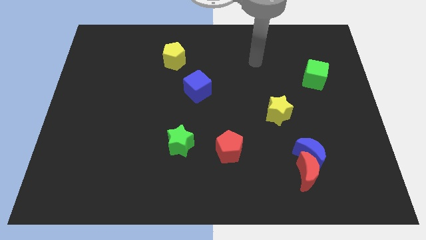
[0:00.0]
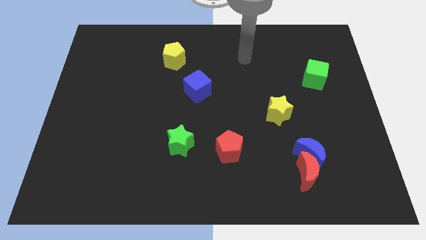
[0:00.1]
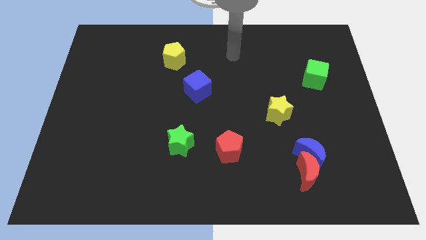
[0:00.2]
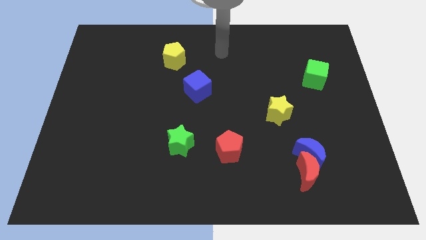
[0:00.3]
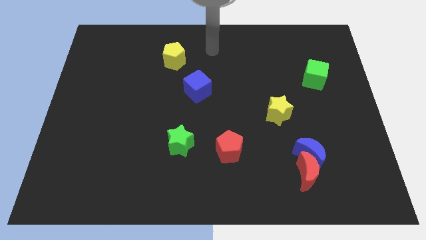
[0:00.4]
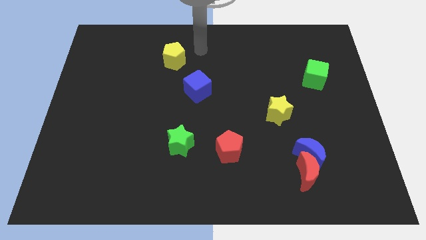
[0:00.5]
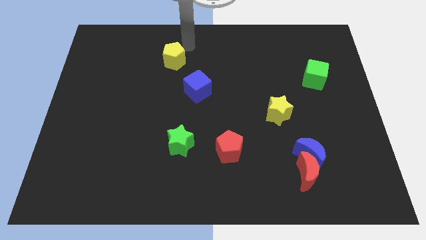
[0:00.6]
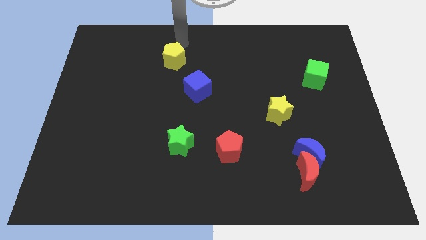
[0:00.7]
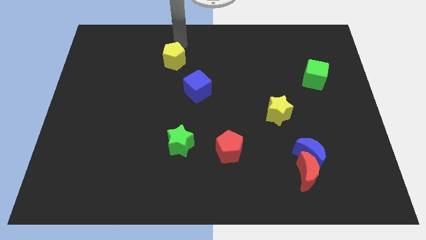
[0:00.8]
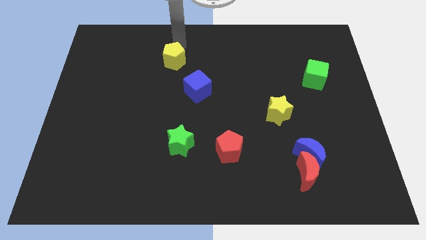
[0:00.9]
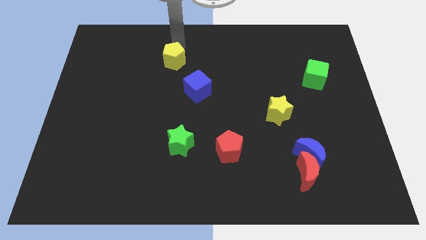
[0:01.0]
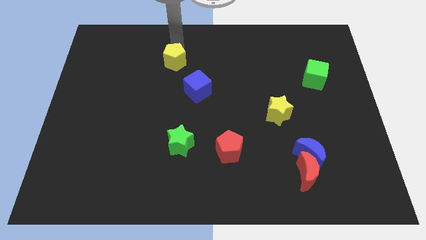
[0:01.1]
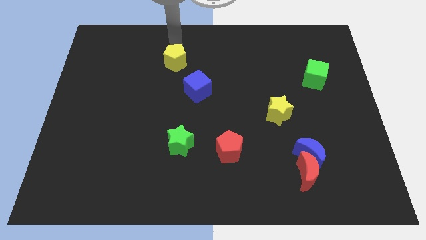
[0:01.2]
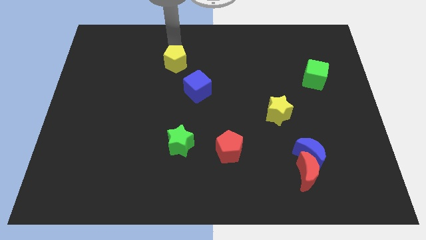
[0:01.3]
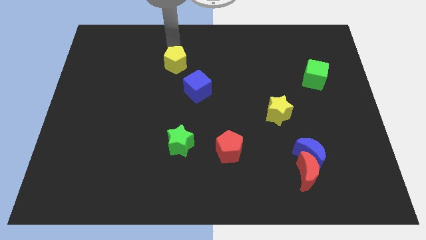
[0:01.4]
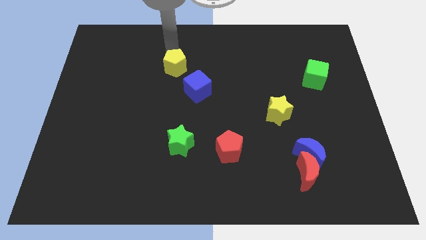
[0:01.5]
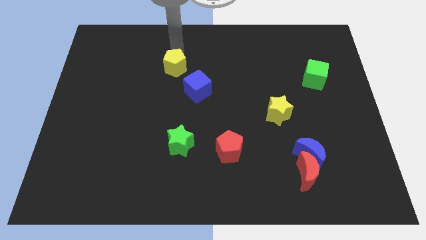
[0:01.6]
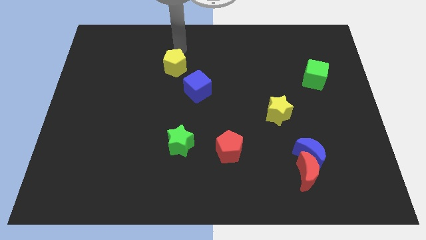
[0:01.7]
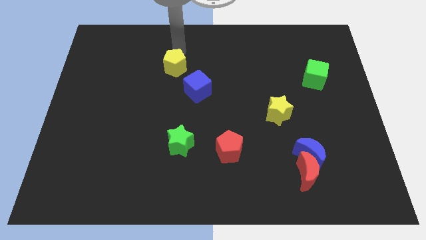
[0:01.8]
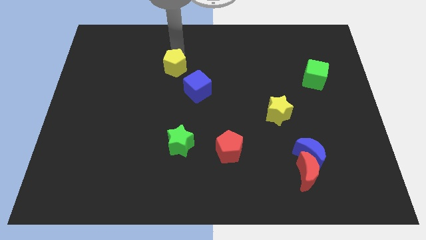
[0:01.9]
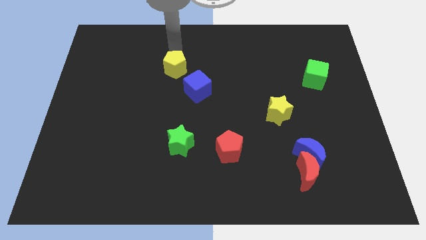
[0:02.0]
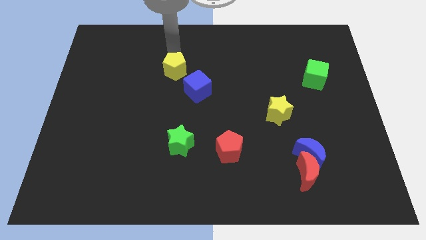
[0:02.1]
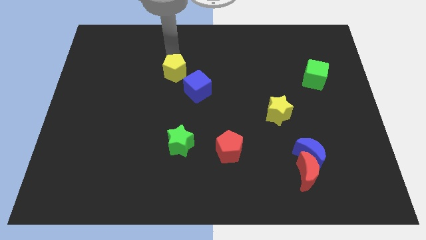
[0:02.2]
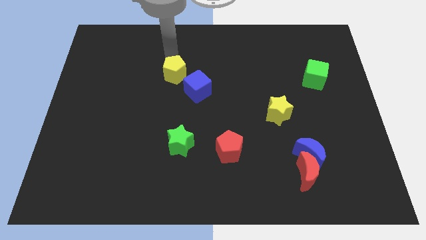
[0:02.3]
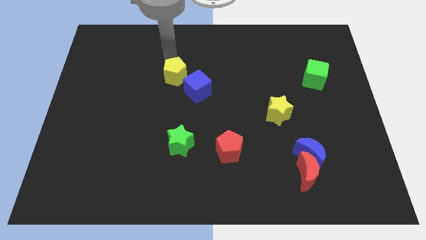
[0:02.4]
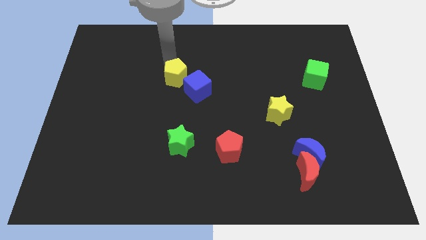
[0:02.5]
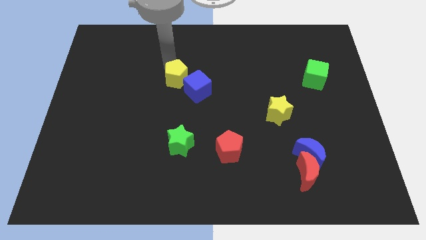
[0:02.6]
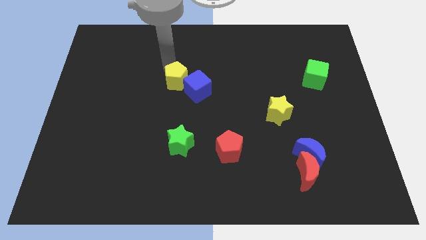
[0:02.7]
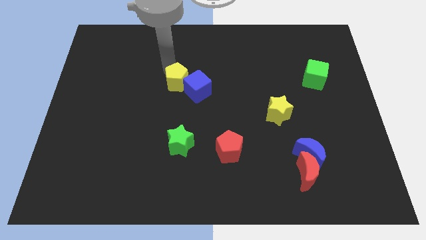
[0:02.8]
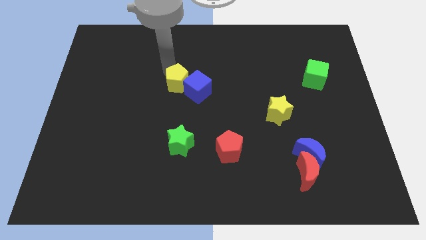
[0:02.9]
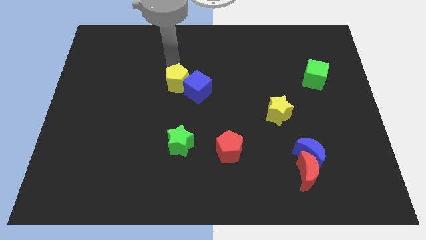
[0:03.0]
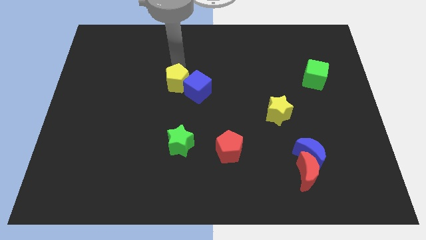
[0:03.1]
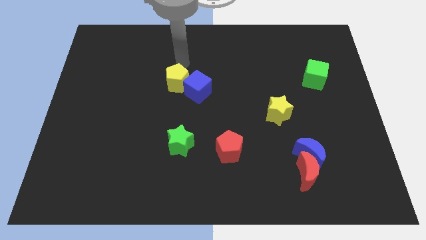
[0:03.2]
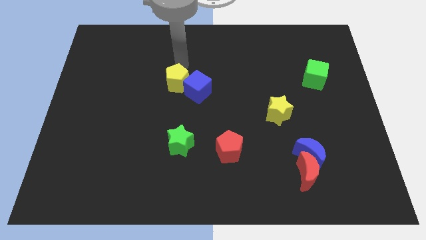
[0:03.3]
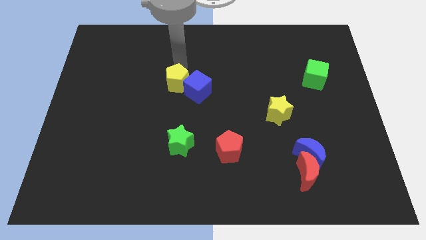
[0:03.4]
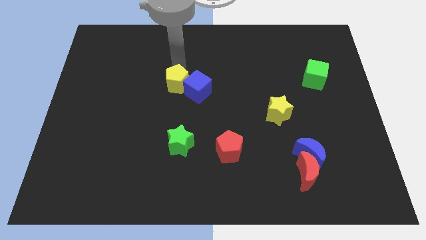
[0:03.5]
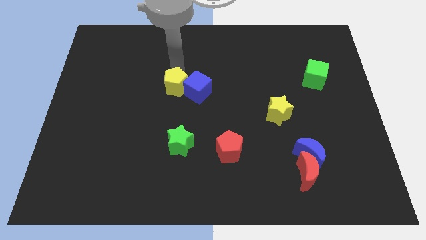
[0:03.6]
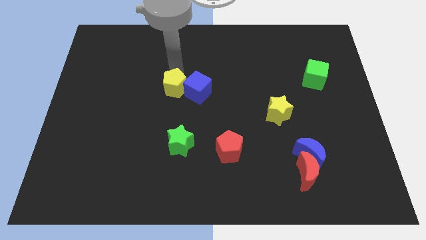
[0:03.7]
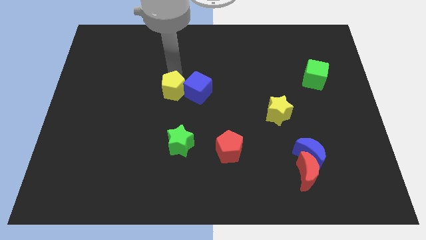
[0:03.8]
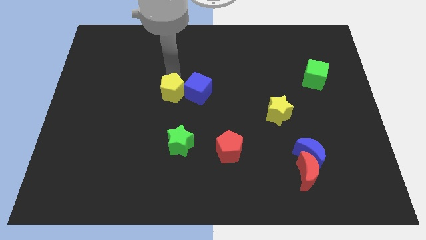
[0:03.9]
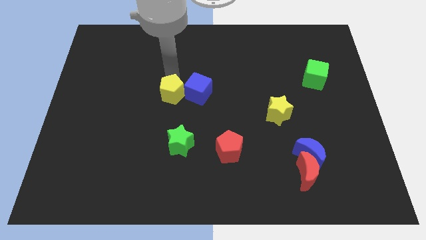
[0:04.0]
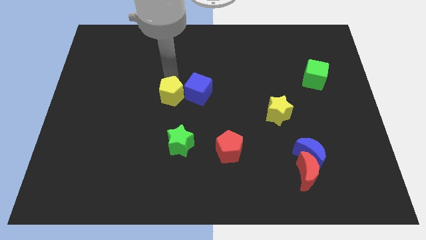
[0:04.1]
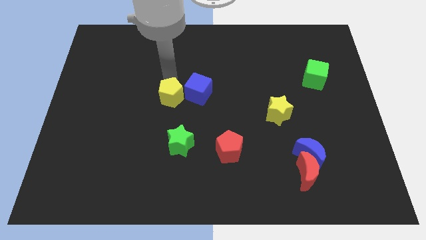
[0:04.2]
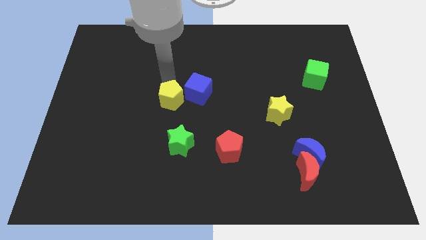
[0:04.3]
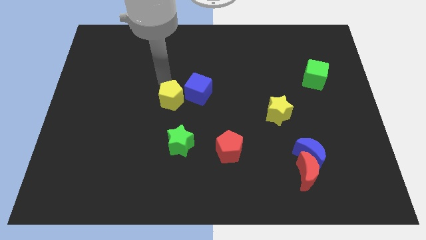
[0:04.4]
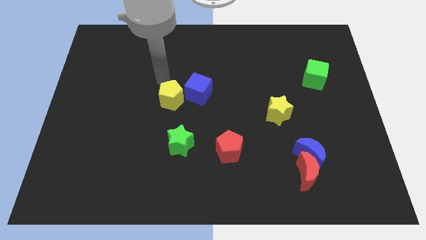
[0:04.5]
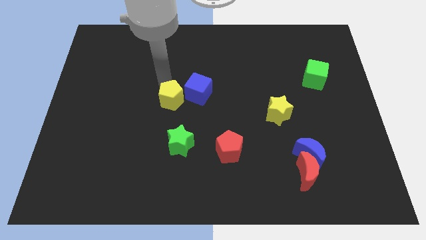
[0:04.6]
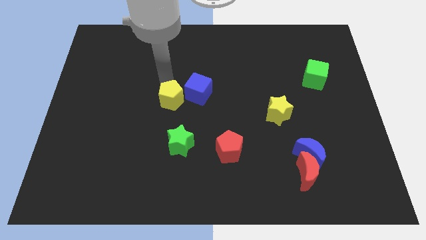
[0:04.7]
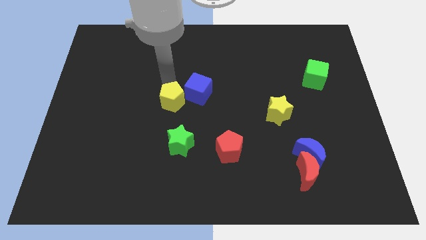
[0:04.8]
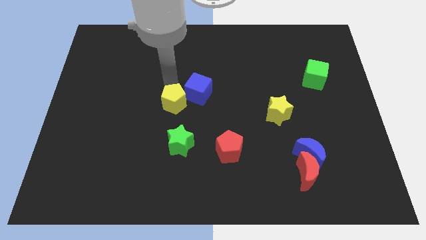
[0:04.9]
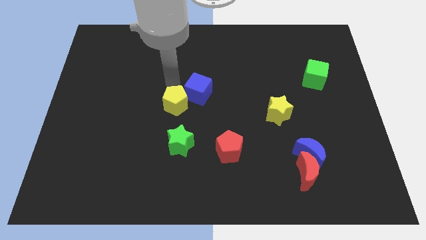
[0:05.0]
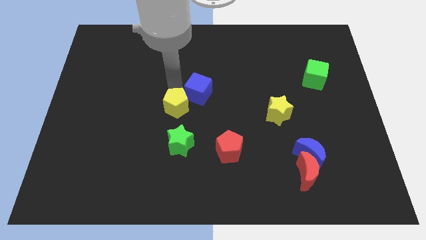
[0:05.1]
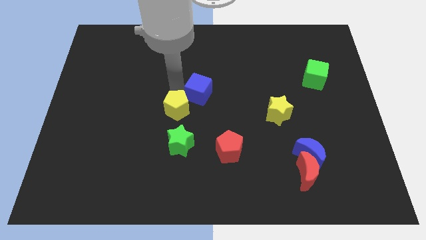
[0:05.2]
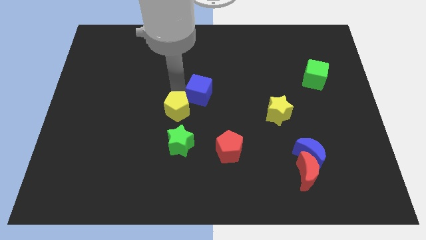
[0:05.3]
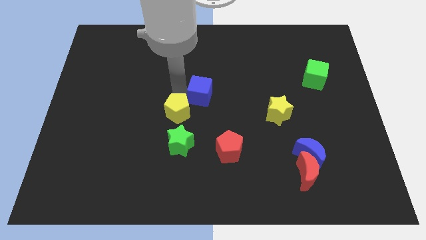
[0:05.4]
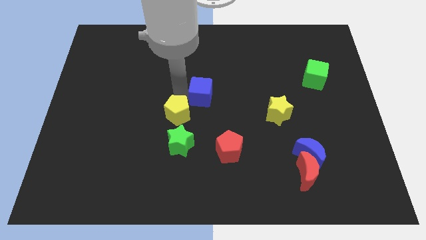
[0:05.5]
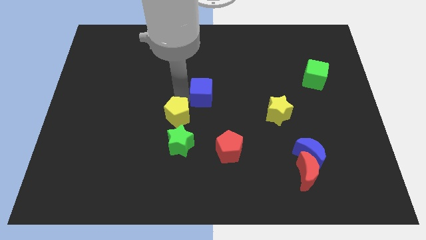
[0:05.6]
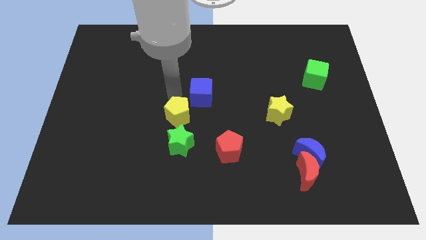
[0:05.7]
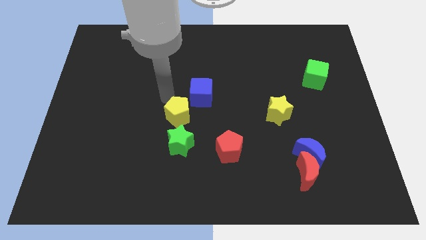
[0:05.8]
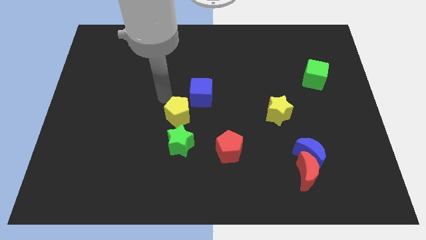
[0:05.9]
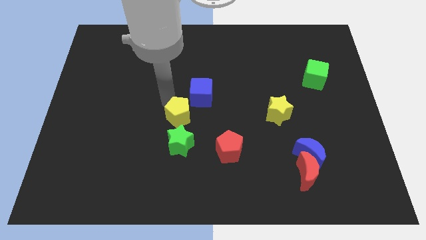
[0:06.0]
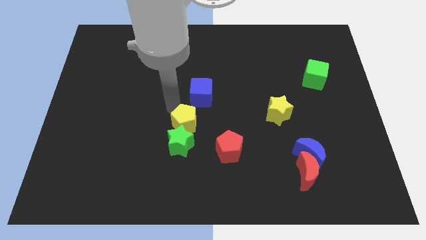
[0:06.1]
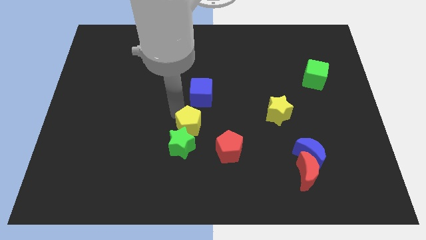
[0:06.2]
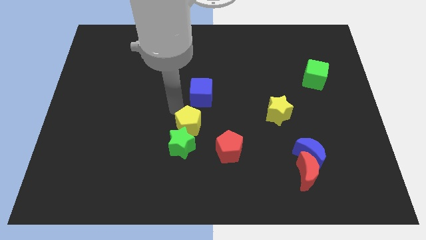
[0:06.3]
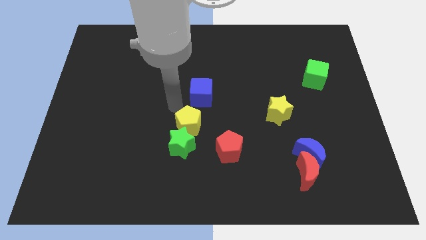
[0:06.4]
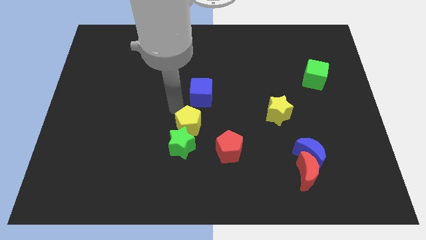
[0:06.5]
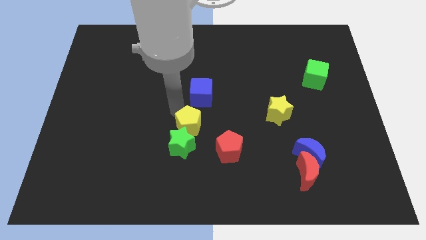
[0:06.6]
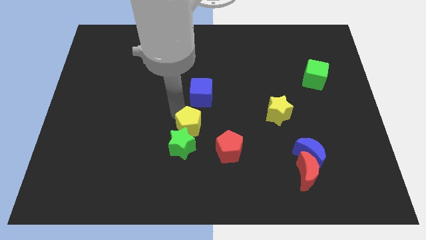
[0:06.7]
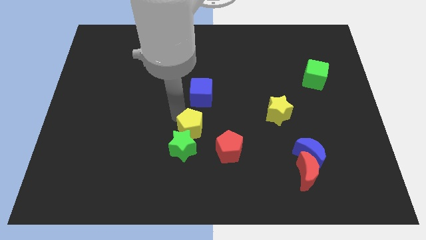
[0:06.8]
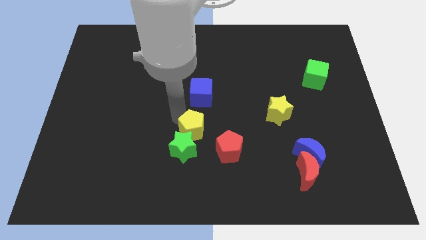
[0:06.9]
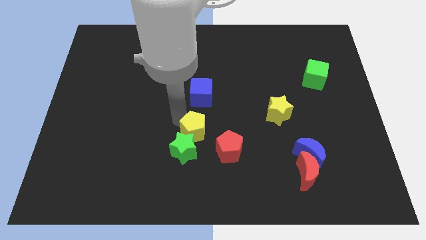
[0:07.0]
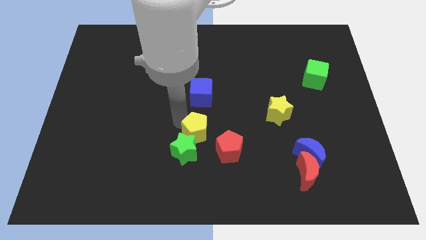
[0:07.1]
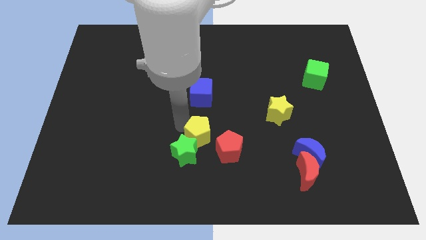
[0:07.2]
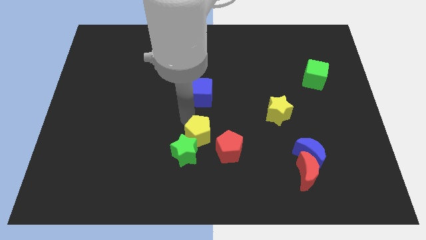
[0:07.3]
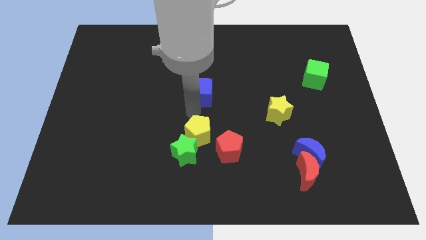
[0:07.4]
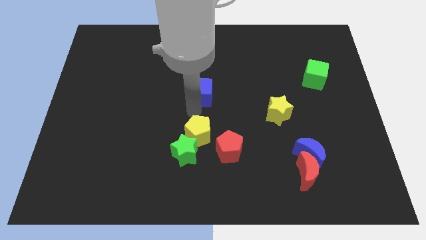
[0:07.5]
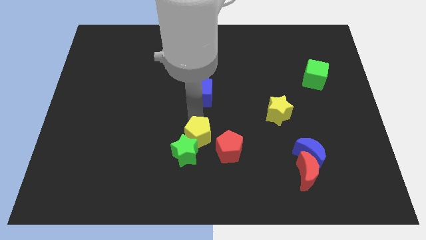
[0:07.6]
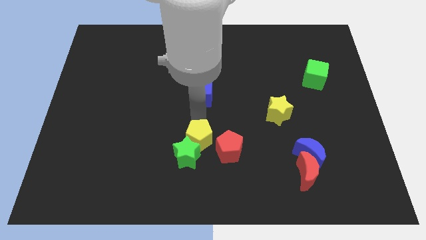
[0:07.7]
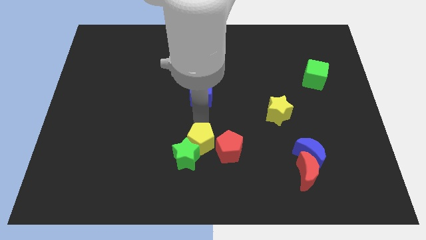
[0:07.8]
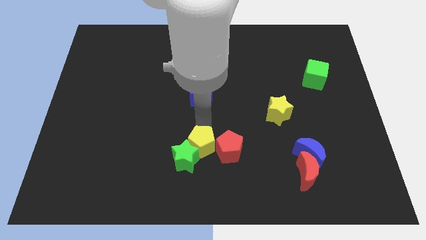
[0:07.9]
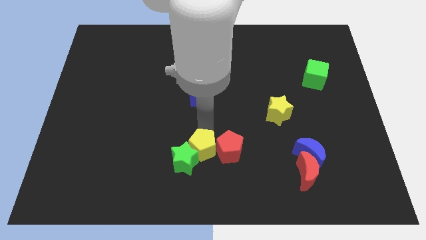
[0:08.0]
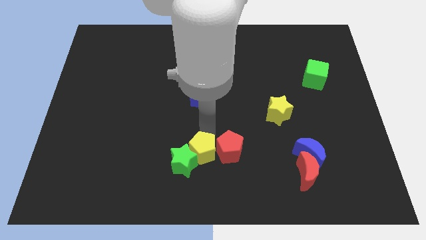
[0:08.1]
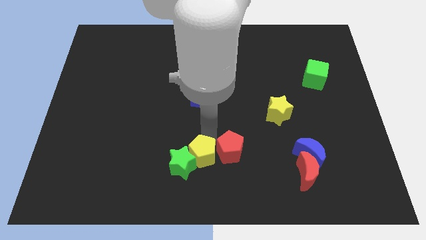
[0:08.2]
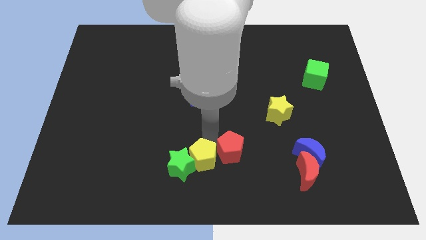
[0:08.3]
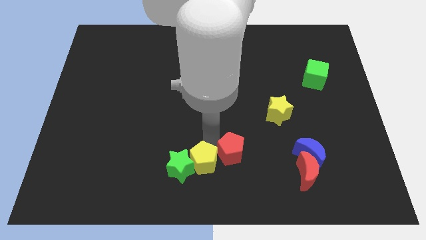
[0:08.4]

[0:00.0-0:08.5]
put the yellow pentagon diagonally down and to the right of the green star
